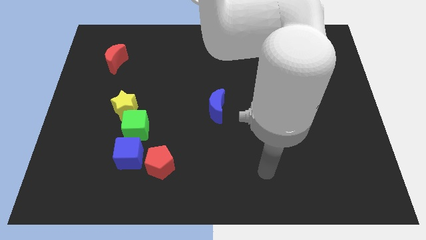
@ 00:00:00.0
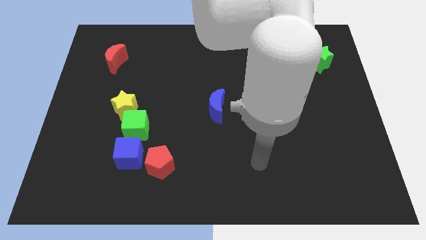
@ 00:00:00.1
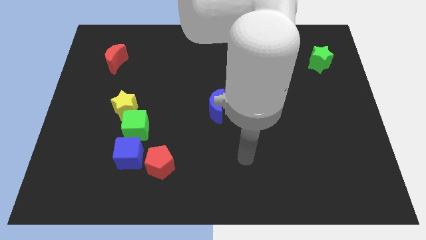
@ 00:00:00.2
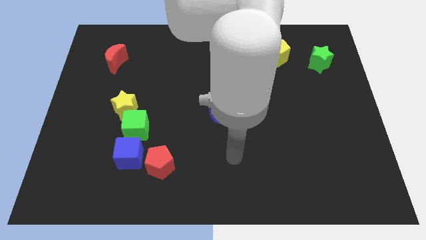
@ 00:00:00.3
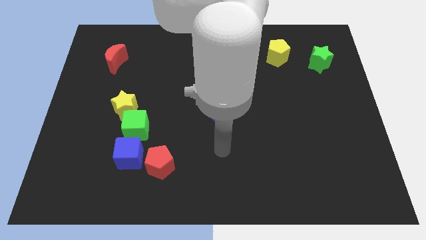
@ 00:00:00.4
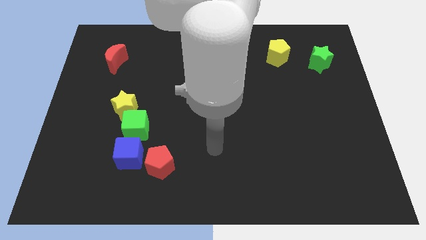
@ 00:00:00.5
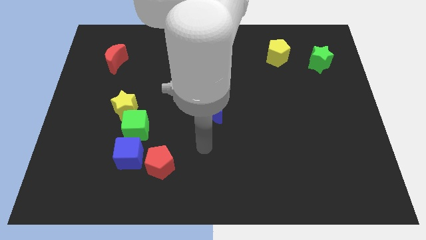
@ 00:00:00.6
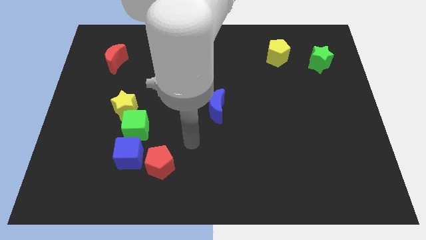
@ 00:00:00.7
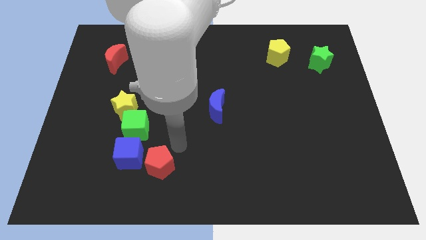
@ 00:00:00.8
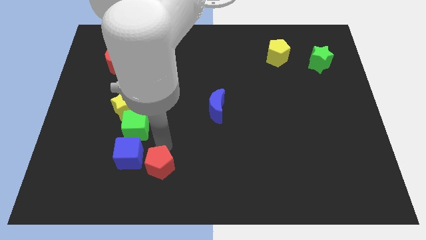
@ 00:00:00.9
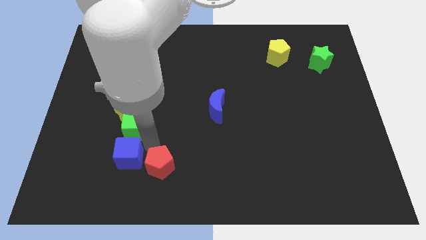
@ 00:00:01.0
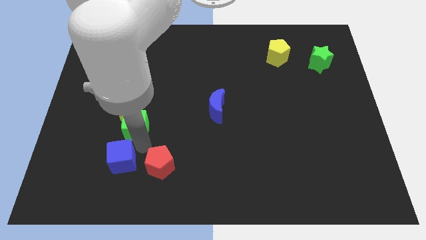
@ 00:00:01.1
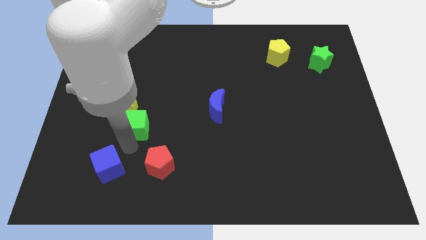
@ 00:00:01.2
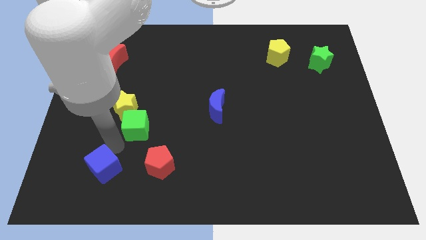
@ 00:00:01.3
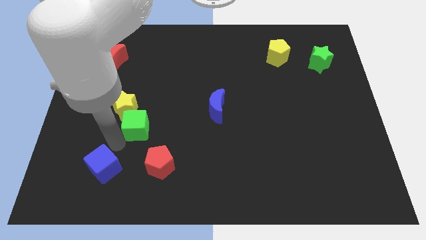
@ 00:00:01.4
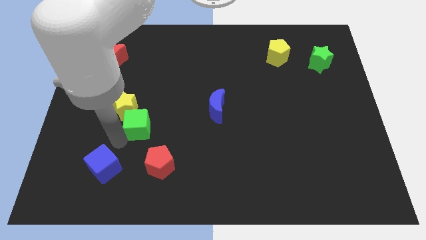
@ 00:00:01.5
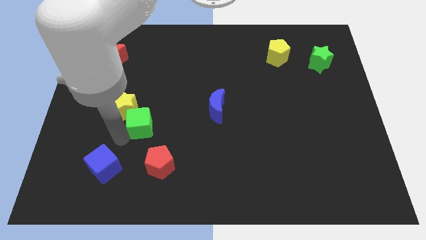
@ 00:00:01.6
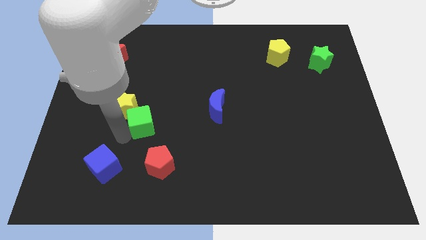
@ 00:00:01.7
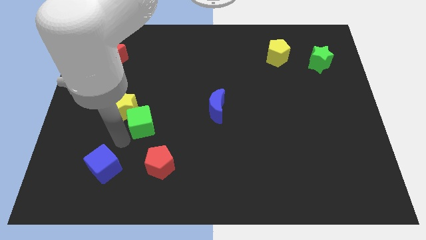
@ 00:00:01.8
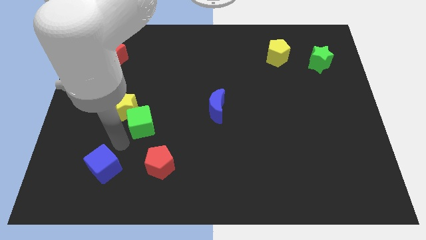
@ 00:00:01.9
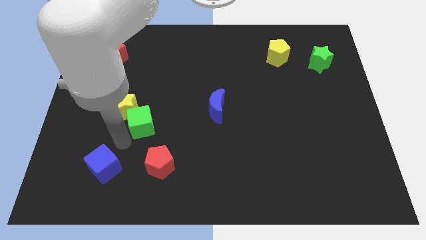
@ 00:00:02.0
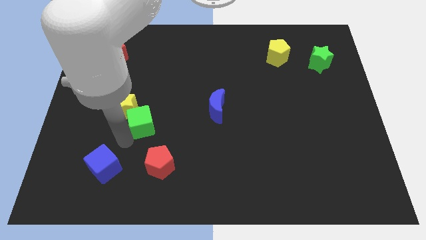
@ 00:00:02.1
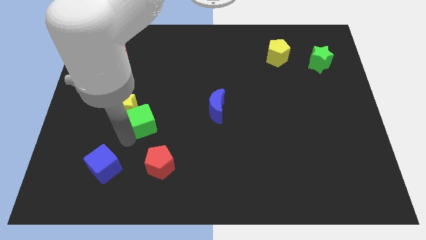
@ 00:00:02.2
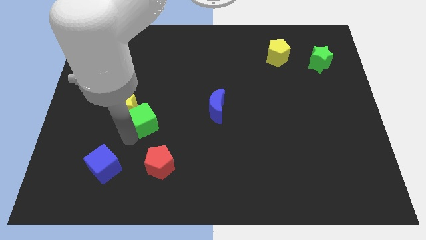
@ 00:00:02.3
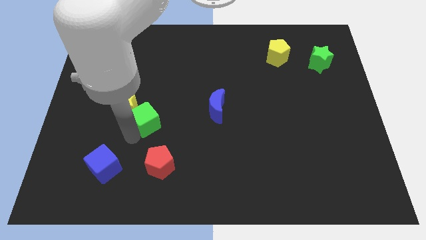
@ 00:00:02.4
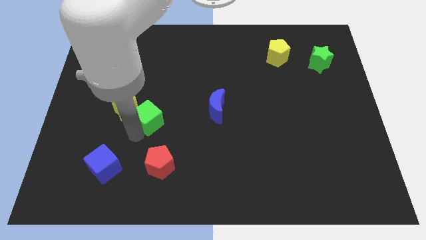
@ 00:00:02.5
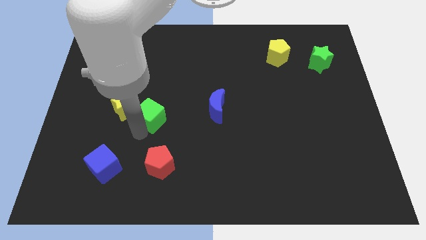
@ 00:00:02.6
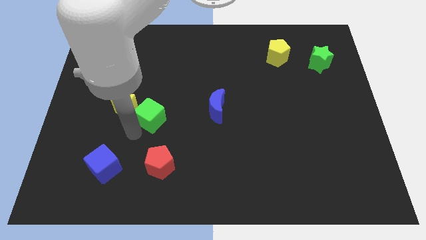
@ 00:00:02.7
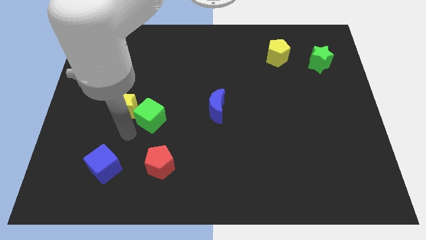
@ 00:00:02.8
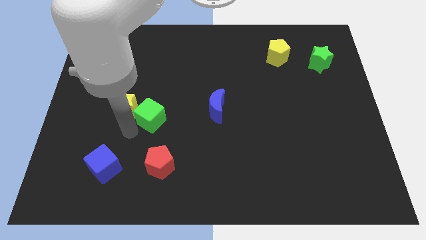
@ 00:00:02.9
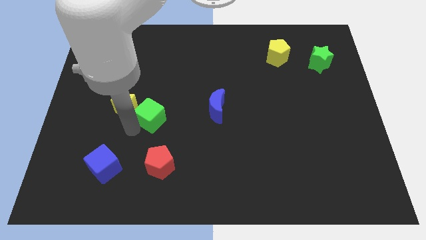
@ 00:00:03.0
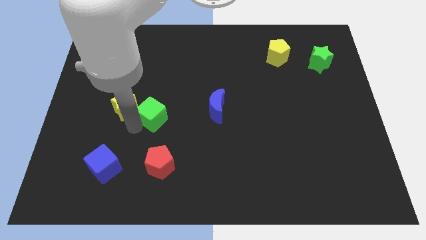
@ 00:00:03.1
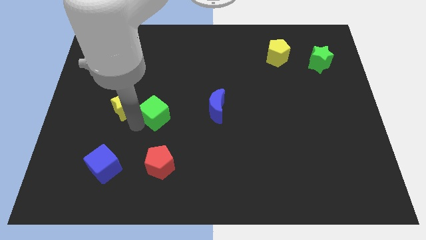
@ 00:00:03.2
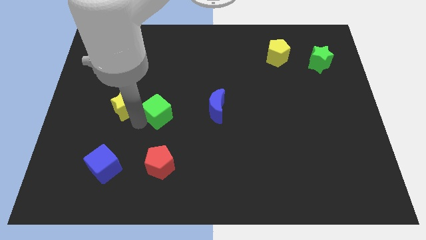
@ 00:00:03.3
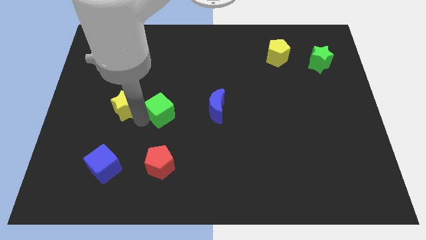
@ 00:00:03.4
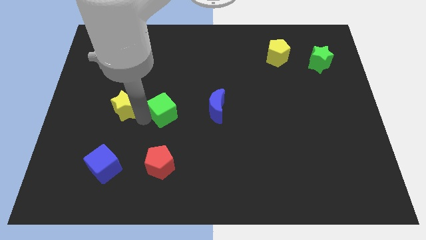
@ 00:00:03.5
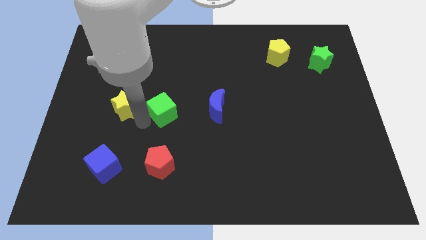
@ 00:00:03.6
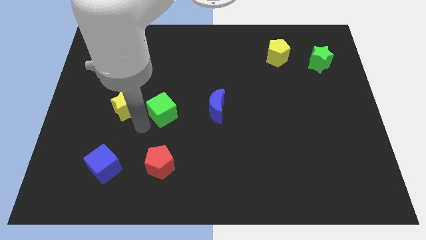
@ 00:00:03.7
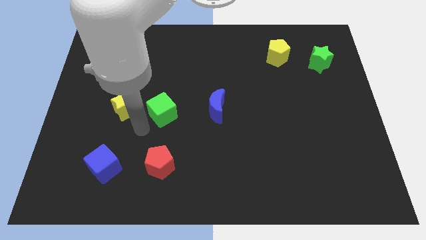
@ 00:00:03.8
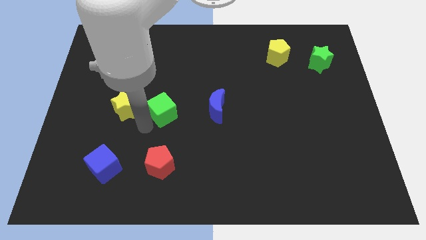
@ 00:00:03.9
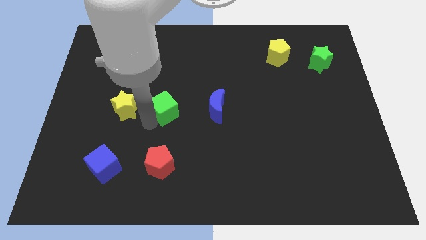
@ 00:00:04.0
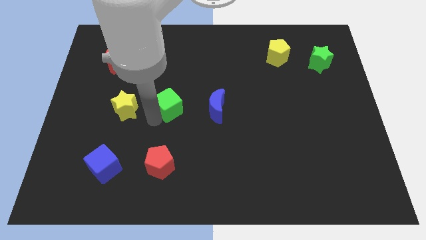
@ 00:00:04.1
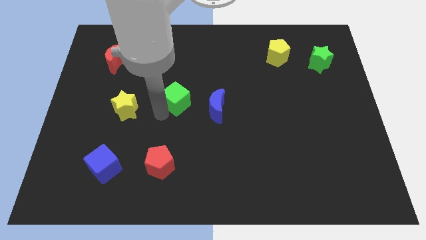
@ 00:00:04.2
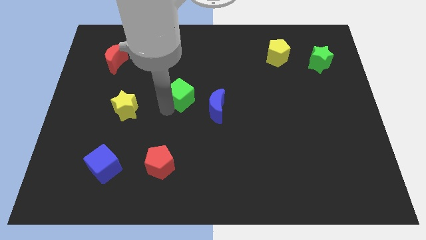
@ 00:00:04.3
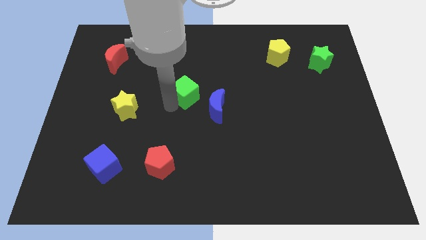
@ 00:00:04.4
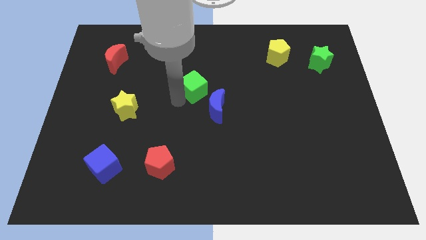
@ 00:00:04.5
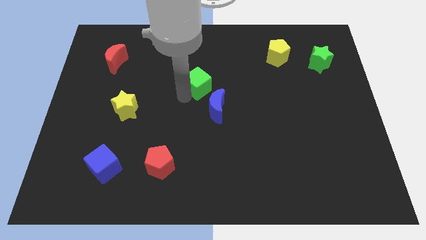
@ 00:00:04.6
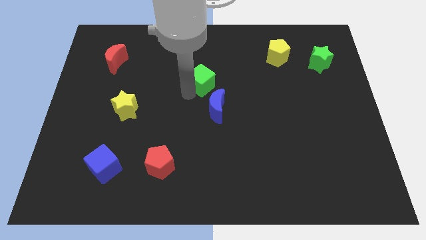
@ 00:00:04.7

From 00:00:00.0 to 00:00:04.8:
push the green cube up and right

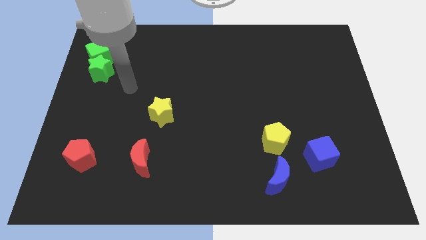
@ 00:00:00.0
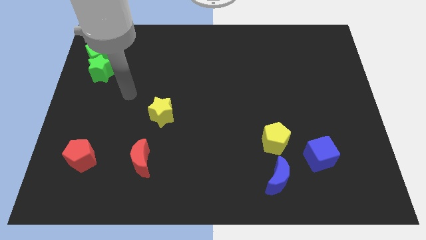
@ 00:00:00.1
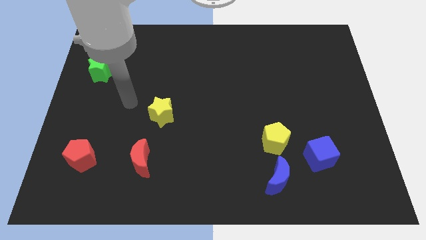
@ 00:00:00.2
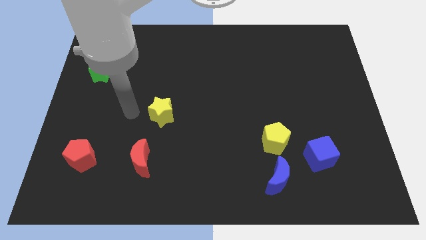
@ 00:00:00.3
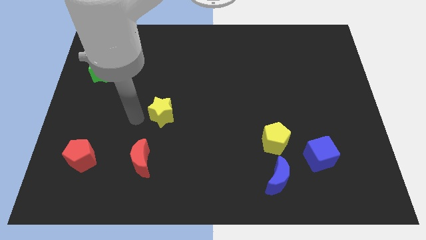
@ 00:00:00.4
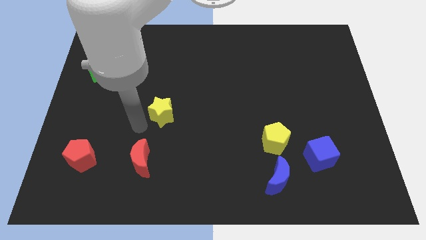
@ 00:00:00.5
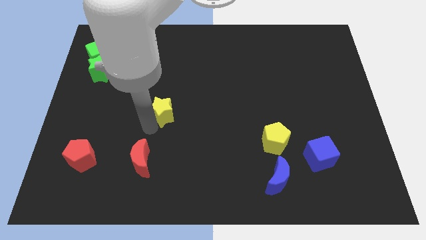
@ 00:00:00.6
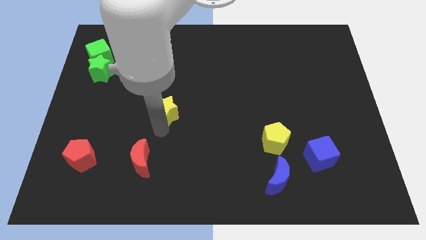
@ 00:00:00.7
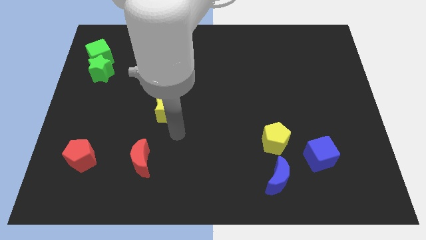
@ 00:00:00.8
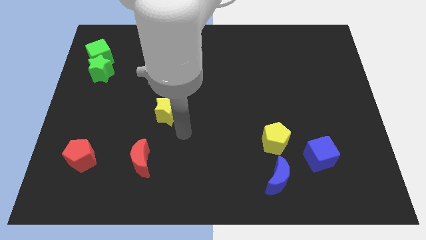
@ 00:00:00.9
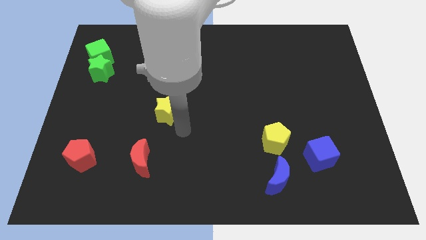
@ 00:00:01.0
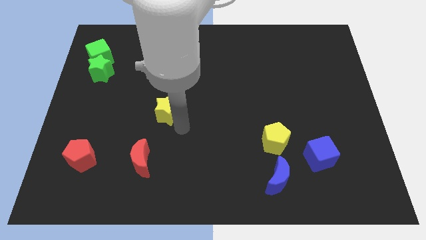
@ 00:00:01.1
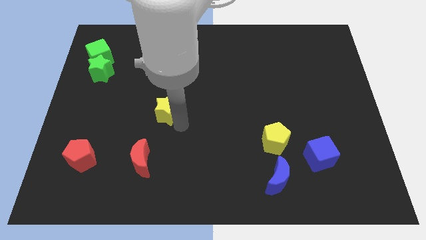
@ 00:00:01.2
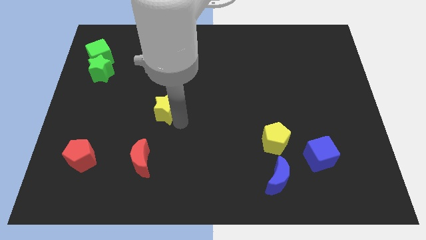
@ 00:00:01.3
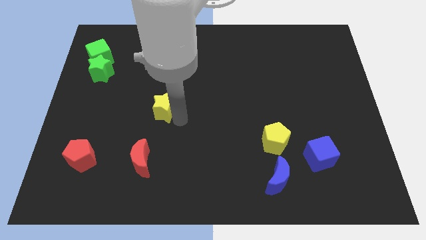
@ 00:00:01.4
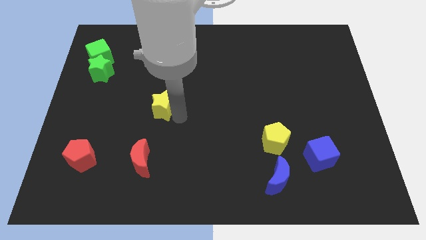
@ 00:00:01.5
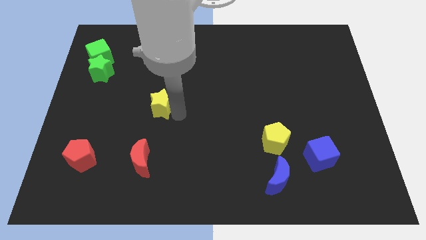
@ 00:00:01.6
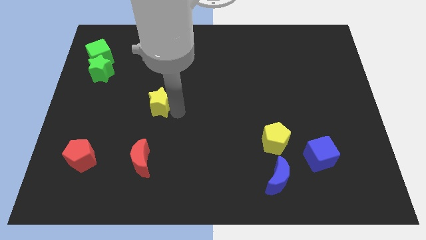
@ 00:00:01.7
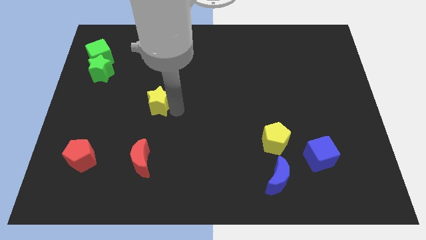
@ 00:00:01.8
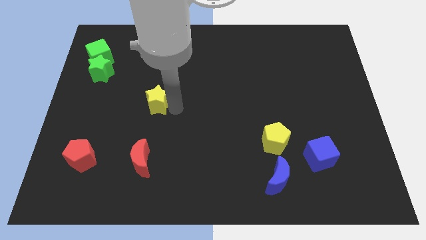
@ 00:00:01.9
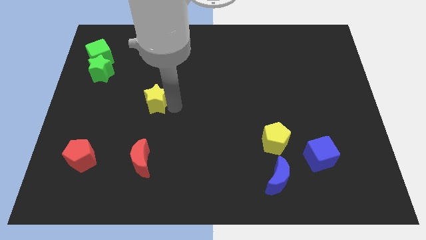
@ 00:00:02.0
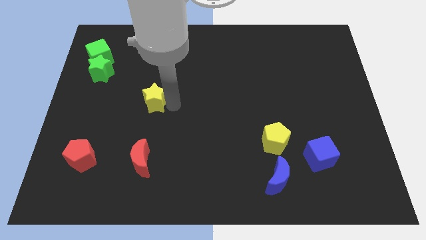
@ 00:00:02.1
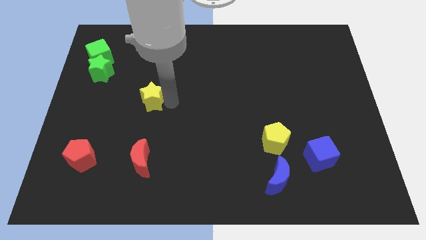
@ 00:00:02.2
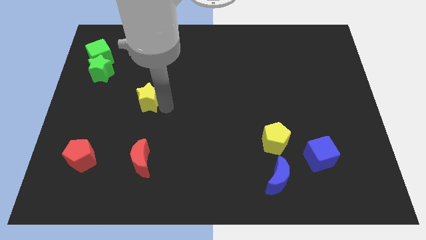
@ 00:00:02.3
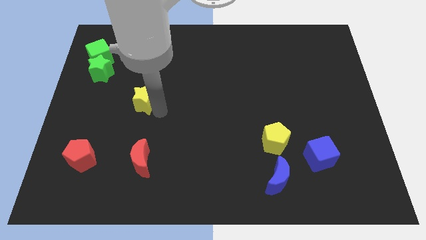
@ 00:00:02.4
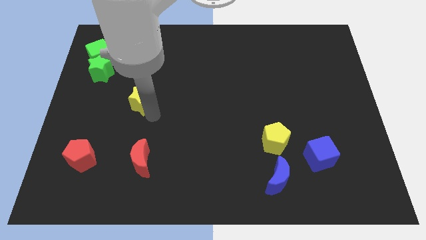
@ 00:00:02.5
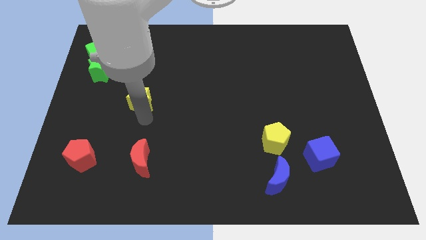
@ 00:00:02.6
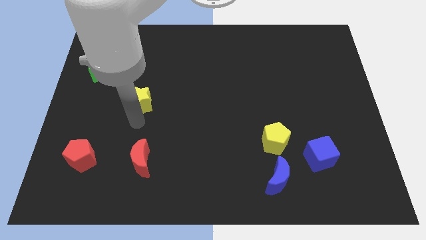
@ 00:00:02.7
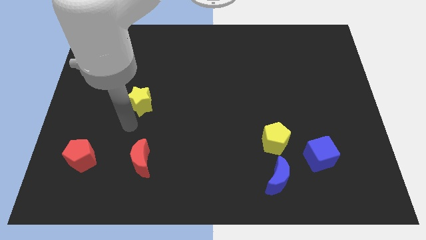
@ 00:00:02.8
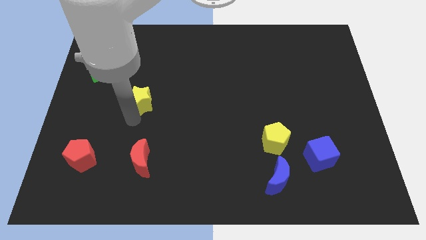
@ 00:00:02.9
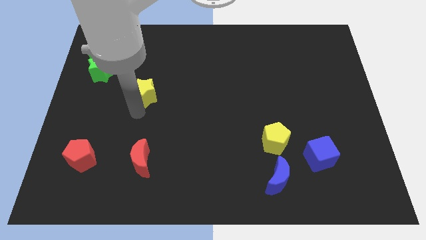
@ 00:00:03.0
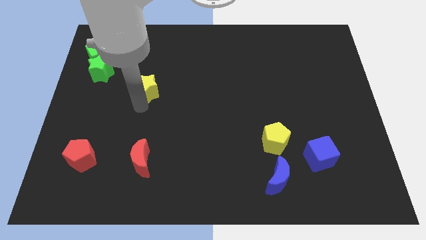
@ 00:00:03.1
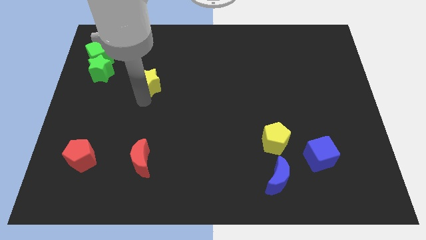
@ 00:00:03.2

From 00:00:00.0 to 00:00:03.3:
slide the yellow star up a bit
